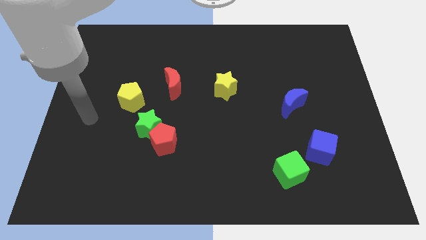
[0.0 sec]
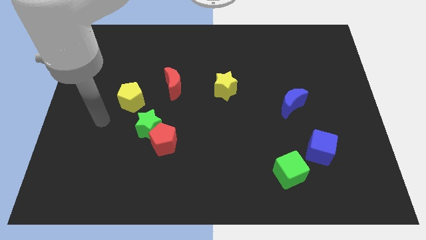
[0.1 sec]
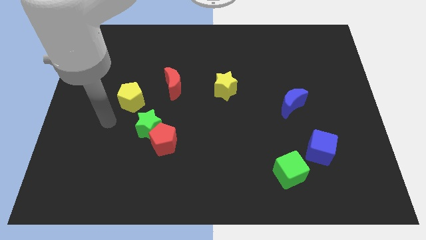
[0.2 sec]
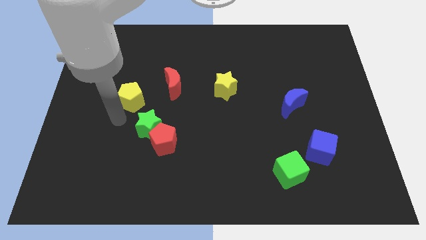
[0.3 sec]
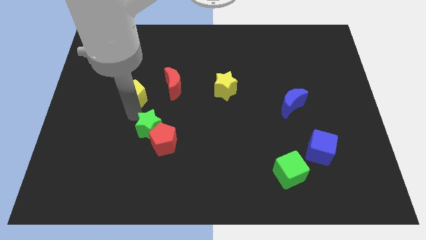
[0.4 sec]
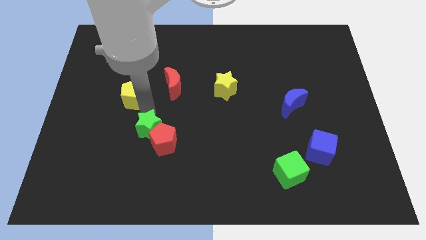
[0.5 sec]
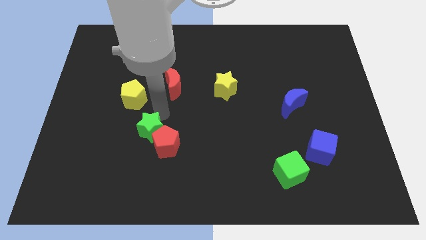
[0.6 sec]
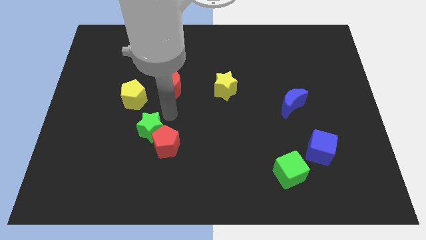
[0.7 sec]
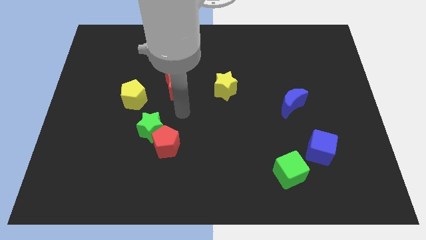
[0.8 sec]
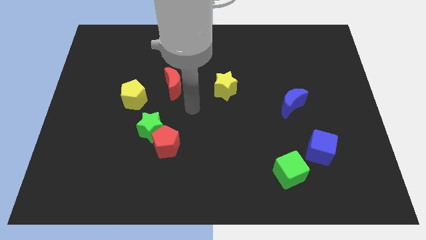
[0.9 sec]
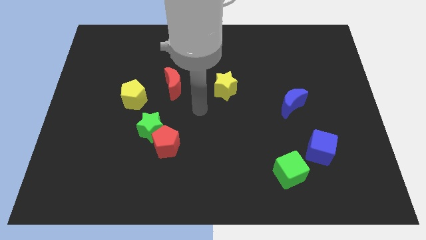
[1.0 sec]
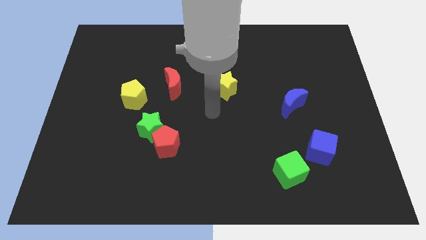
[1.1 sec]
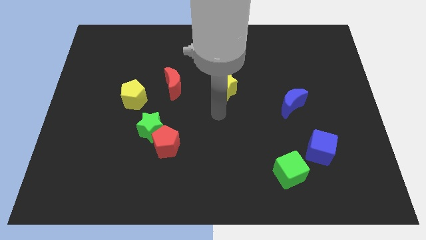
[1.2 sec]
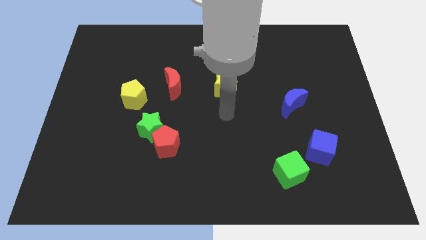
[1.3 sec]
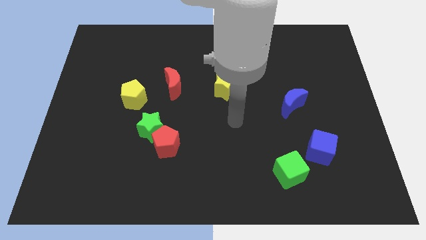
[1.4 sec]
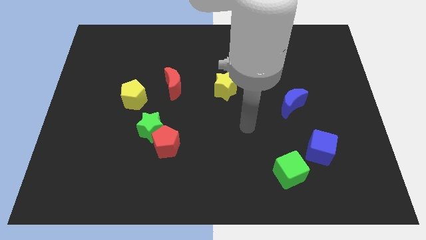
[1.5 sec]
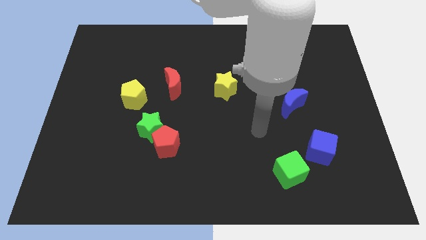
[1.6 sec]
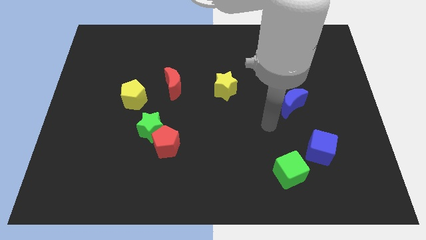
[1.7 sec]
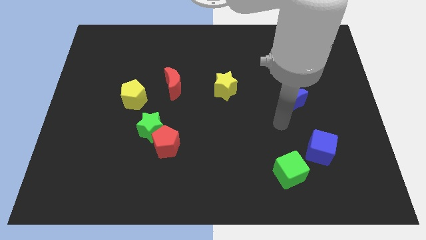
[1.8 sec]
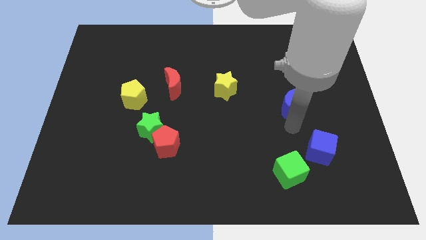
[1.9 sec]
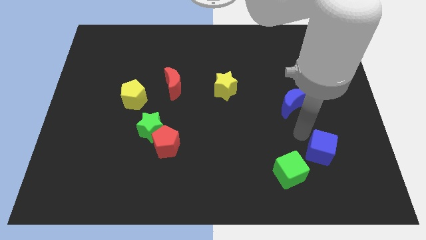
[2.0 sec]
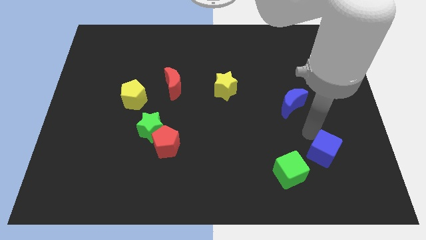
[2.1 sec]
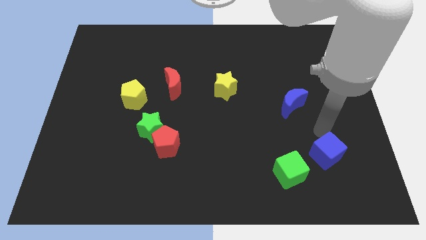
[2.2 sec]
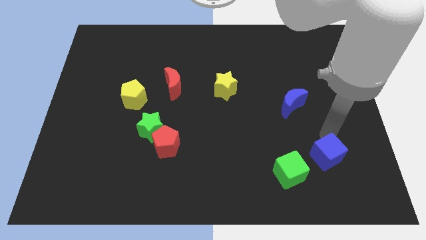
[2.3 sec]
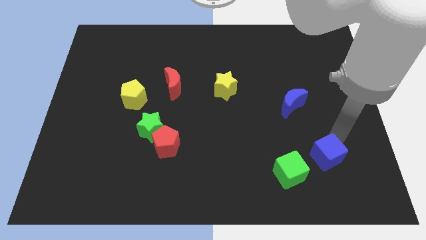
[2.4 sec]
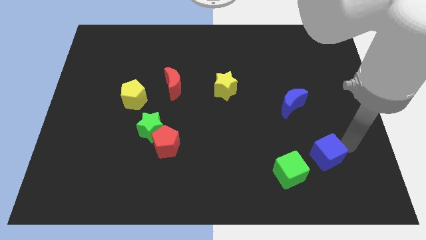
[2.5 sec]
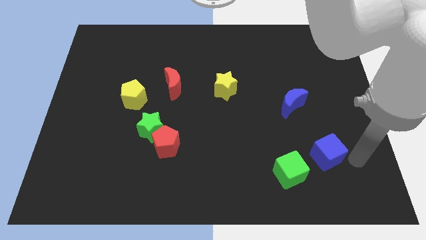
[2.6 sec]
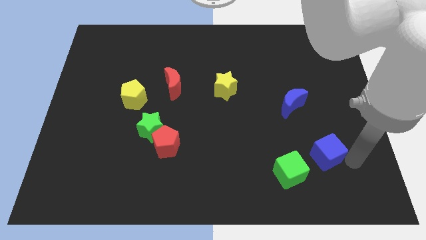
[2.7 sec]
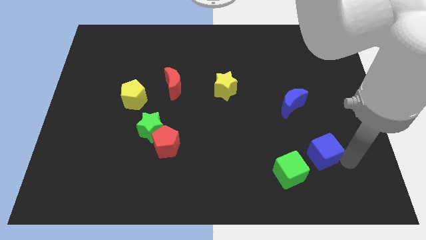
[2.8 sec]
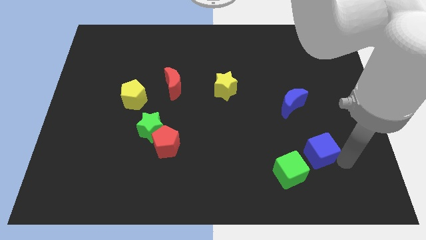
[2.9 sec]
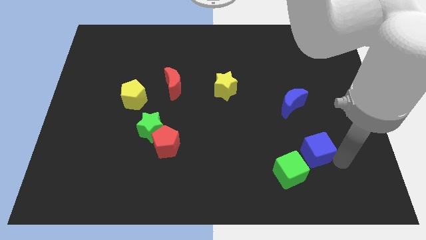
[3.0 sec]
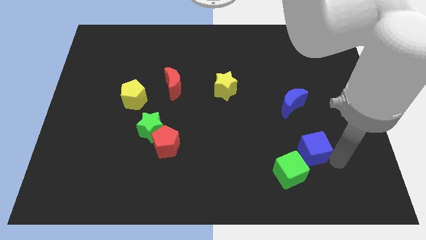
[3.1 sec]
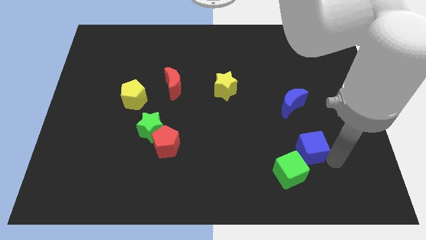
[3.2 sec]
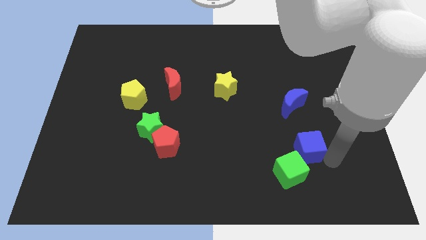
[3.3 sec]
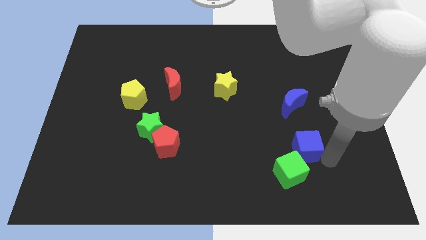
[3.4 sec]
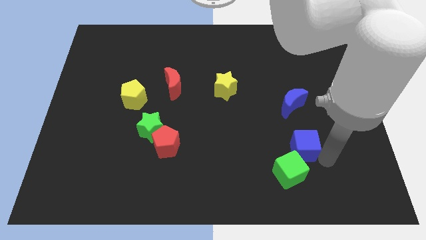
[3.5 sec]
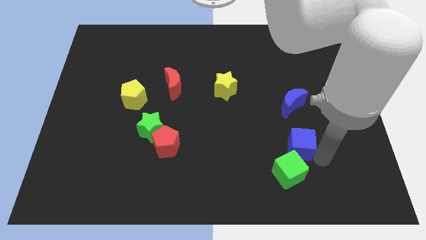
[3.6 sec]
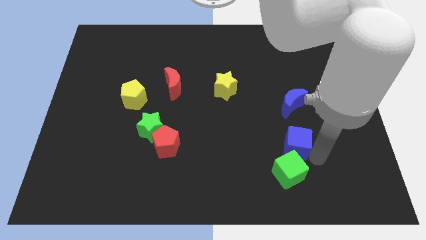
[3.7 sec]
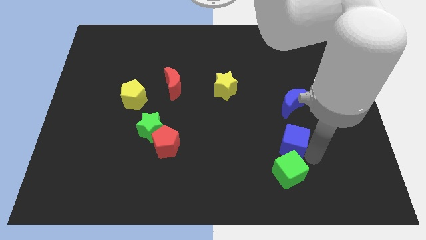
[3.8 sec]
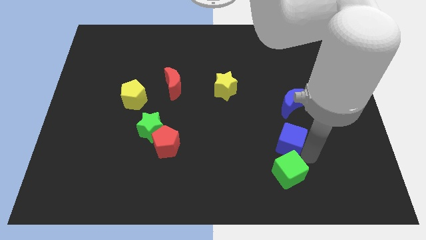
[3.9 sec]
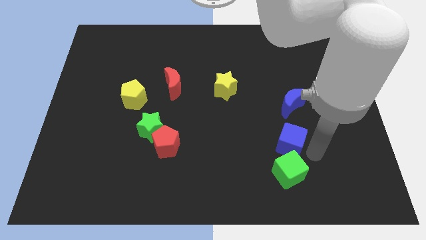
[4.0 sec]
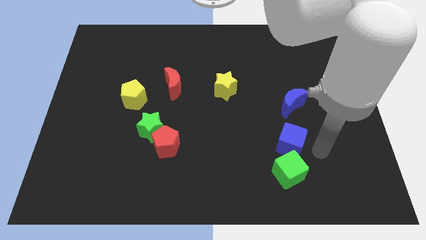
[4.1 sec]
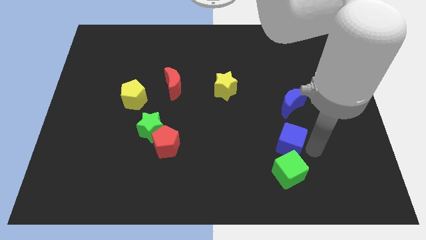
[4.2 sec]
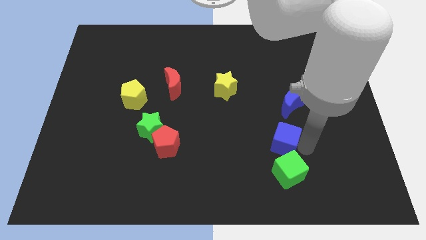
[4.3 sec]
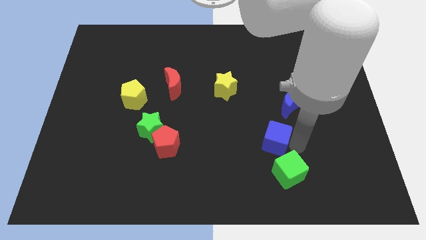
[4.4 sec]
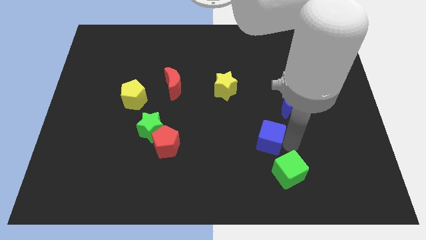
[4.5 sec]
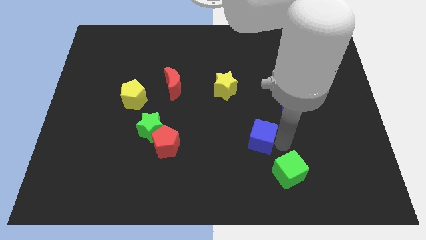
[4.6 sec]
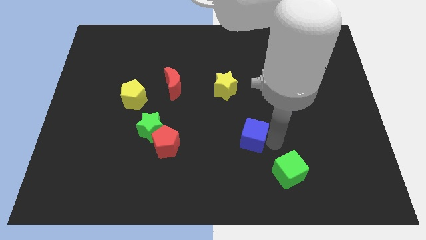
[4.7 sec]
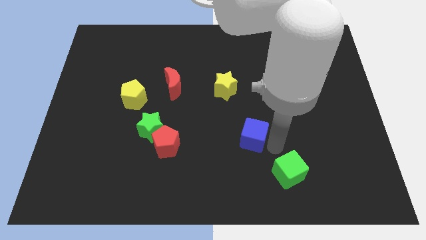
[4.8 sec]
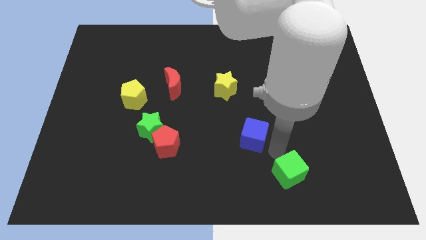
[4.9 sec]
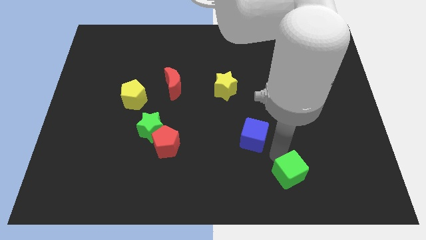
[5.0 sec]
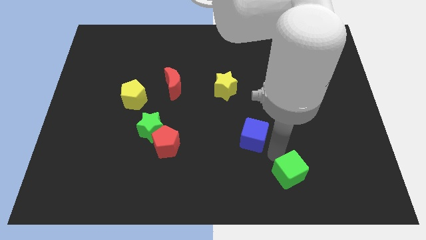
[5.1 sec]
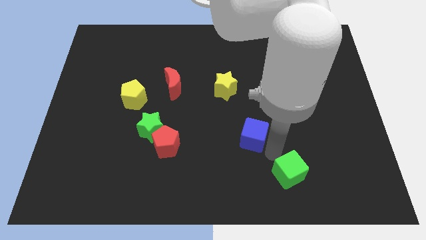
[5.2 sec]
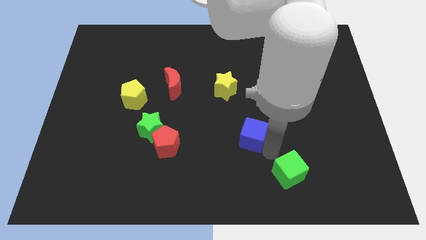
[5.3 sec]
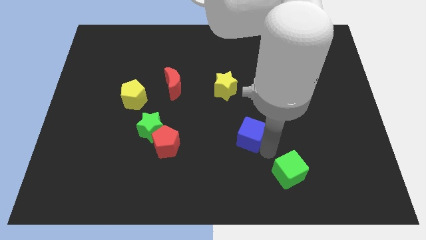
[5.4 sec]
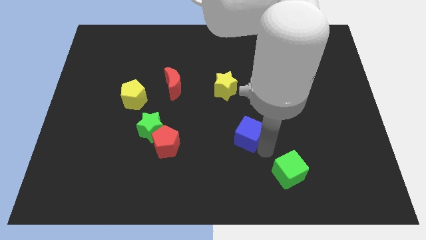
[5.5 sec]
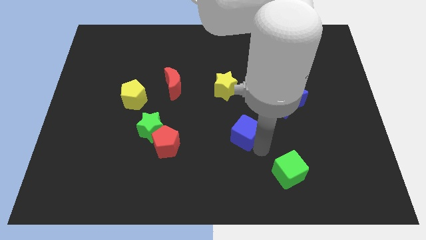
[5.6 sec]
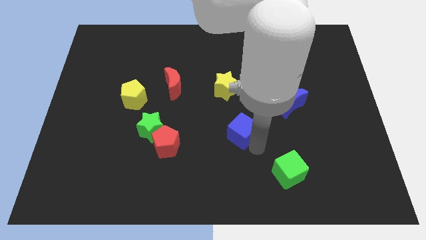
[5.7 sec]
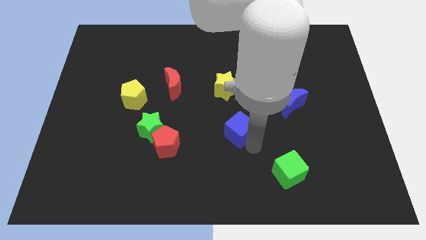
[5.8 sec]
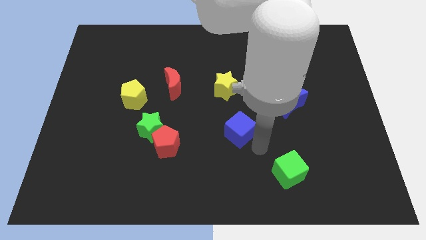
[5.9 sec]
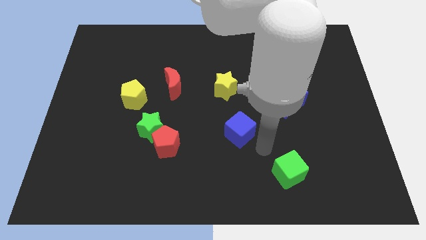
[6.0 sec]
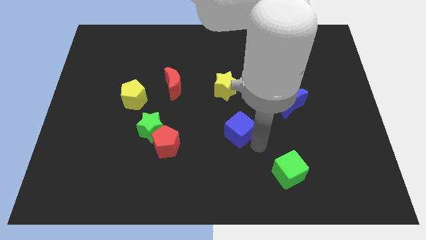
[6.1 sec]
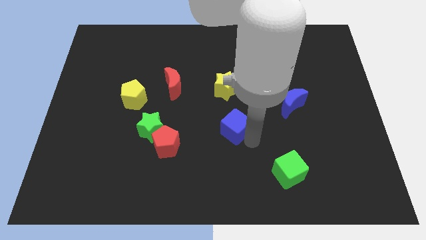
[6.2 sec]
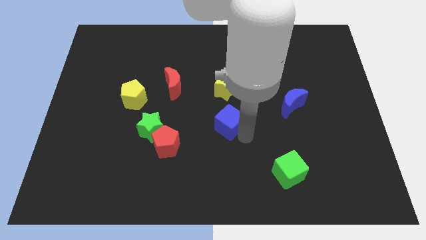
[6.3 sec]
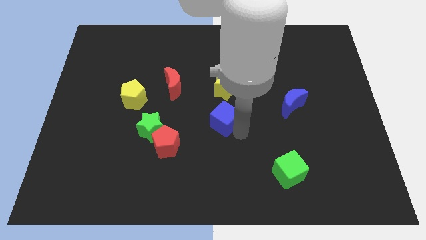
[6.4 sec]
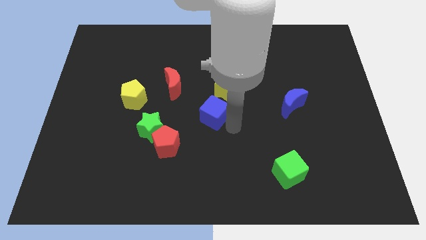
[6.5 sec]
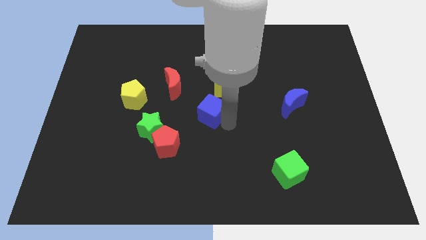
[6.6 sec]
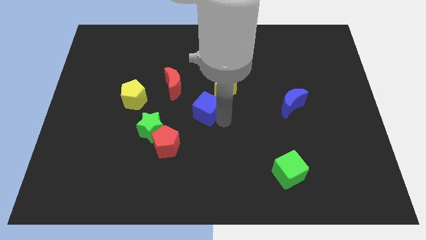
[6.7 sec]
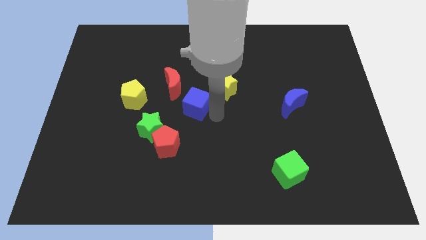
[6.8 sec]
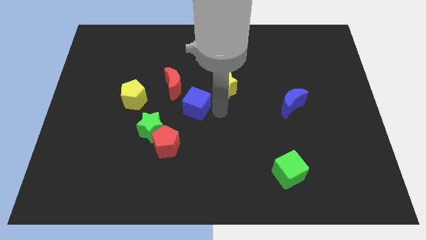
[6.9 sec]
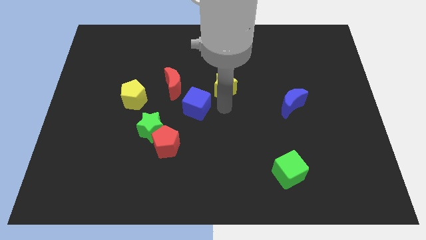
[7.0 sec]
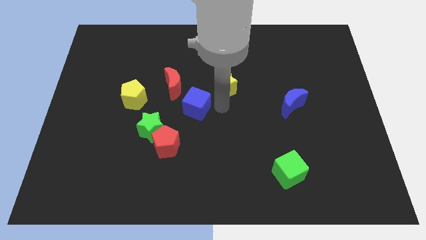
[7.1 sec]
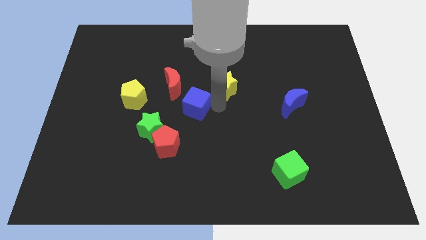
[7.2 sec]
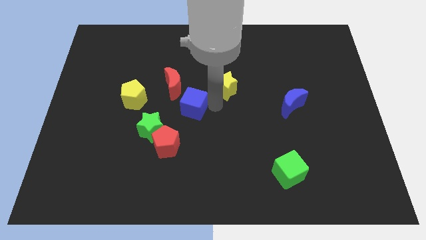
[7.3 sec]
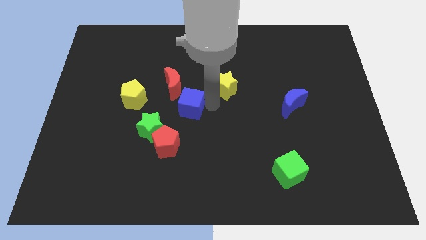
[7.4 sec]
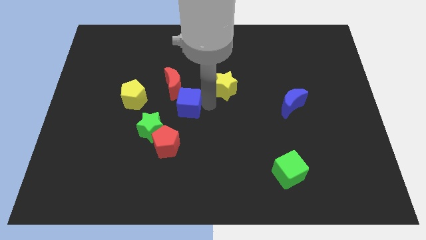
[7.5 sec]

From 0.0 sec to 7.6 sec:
slide the blue cube above the red pentagon
